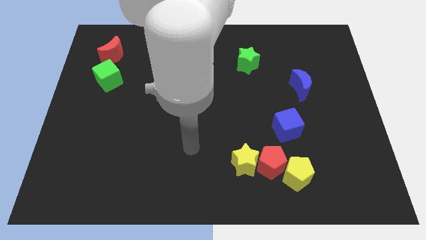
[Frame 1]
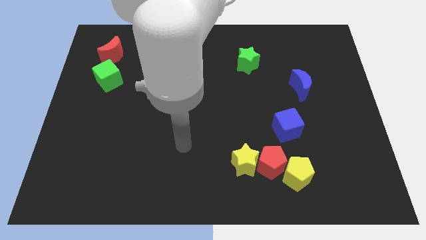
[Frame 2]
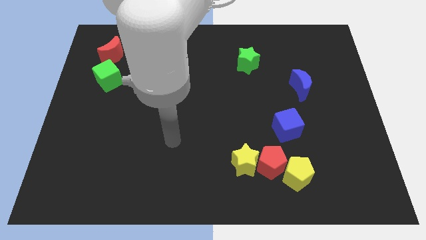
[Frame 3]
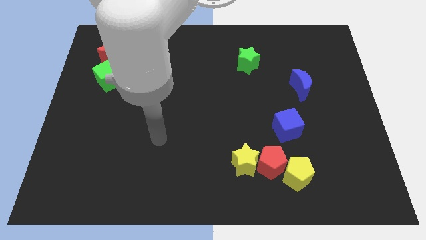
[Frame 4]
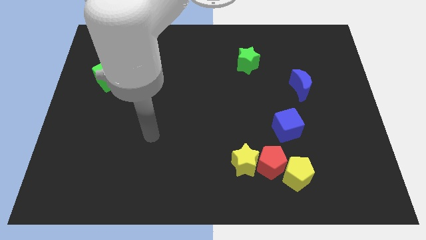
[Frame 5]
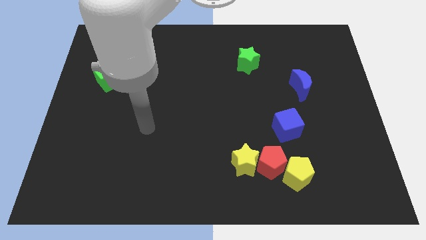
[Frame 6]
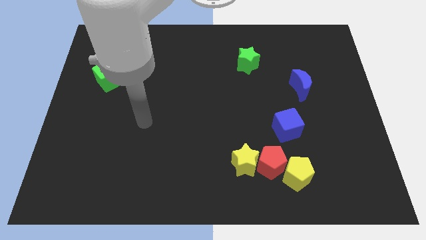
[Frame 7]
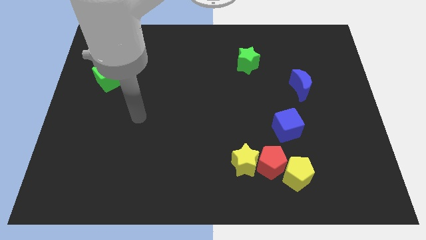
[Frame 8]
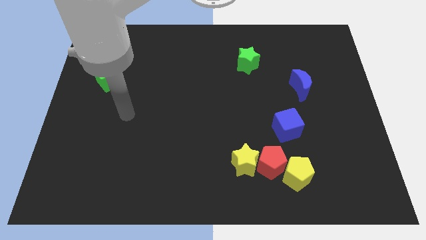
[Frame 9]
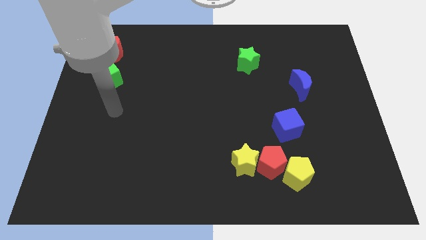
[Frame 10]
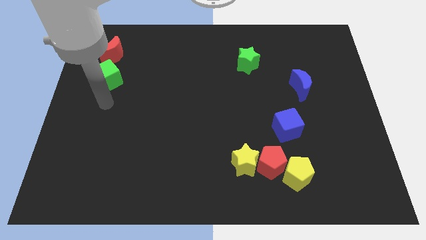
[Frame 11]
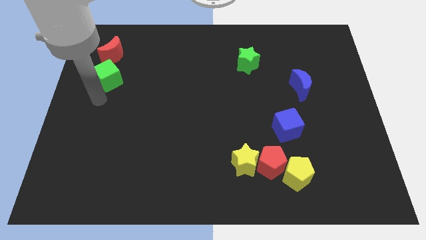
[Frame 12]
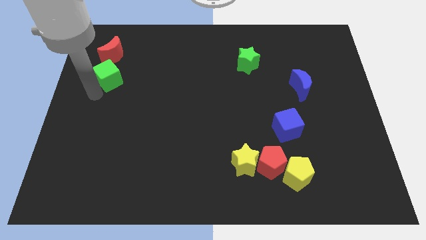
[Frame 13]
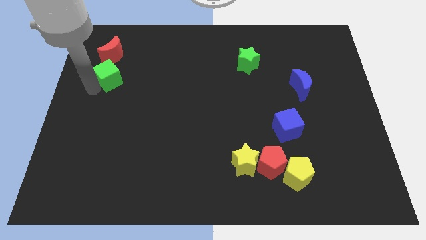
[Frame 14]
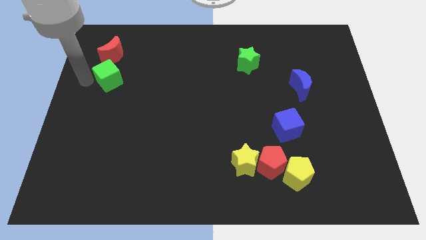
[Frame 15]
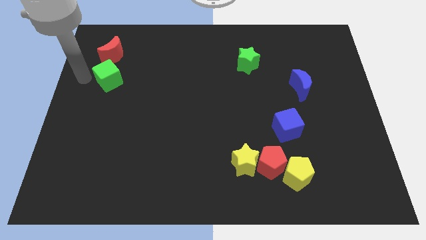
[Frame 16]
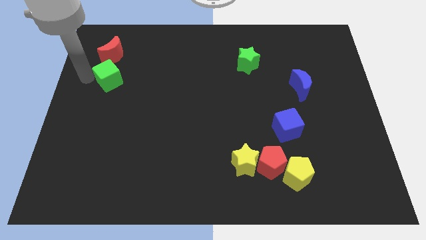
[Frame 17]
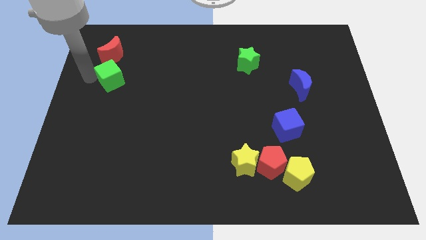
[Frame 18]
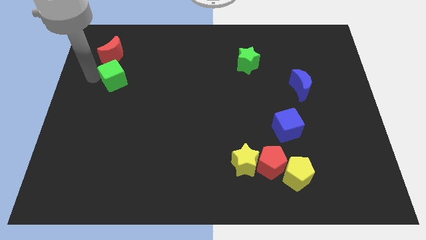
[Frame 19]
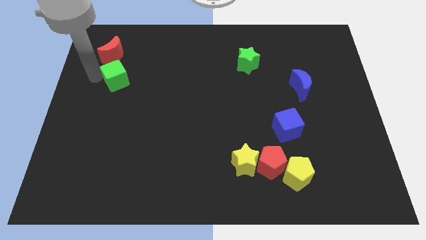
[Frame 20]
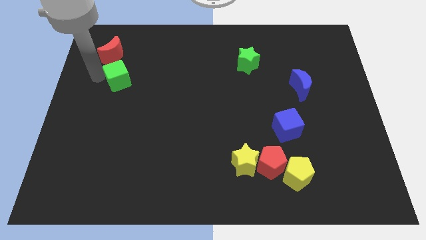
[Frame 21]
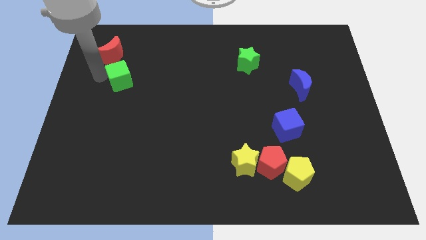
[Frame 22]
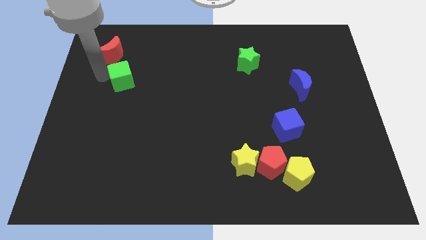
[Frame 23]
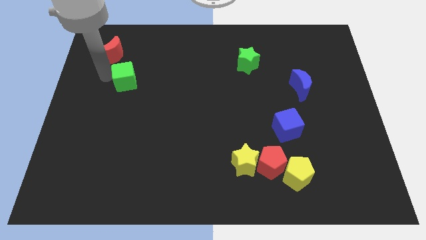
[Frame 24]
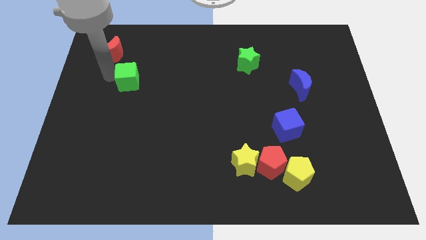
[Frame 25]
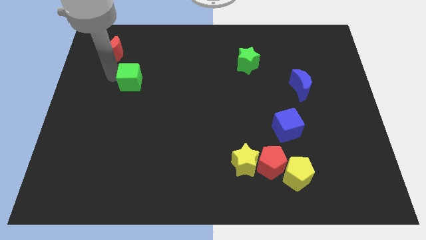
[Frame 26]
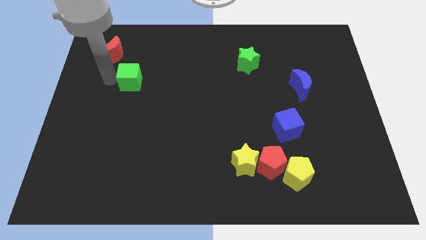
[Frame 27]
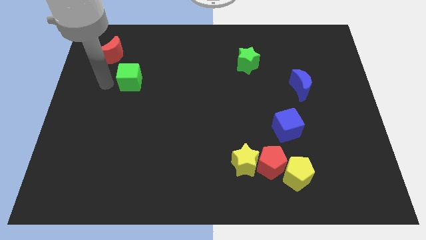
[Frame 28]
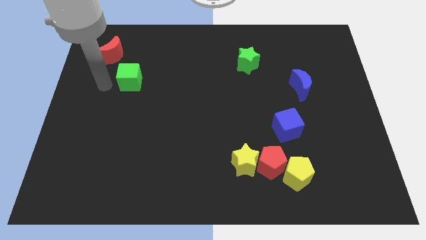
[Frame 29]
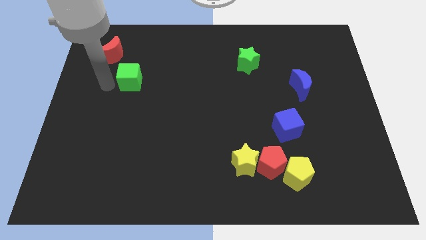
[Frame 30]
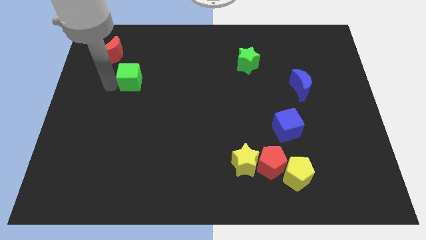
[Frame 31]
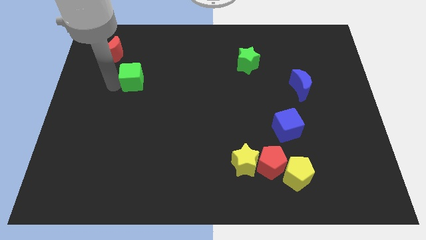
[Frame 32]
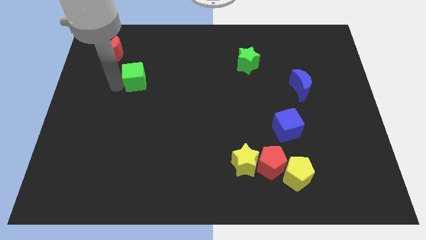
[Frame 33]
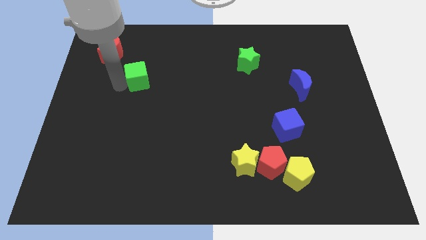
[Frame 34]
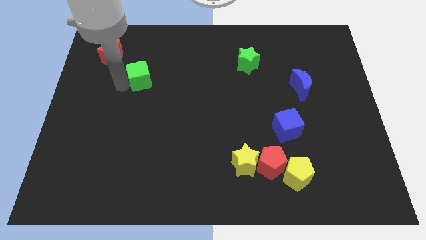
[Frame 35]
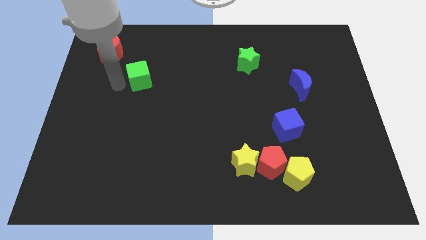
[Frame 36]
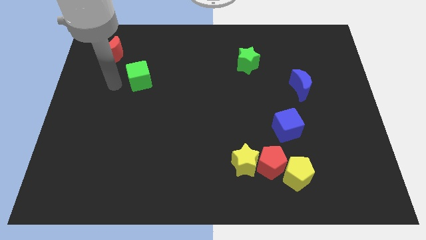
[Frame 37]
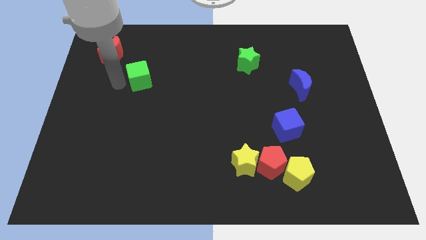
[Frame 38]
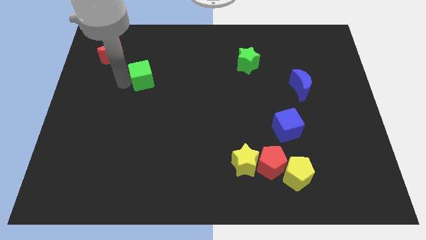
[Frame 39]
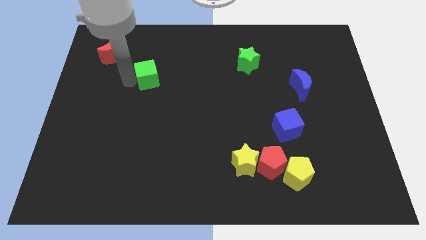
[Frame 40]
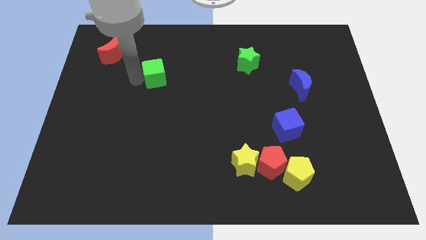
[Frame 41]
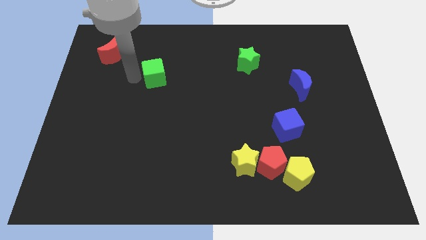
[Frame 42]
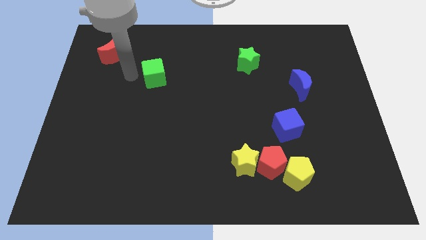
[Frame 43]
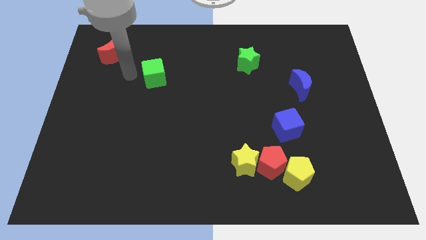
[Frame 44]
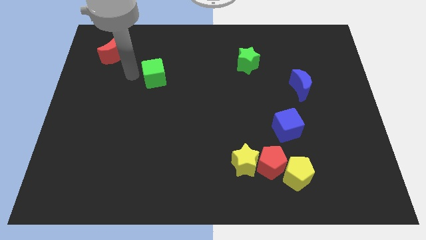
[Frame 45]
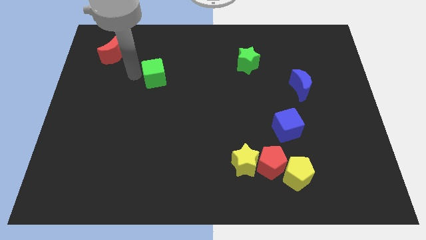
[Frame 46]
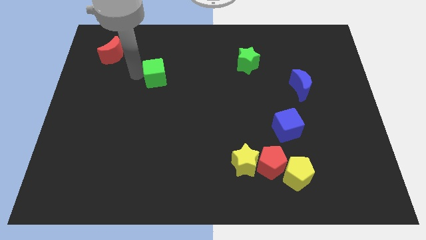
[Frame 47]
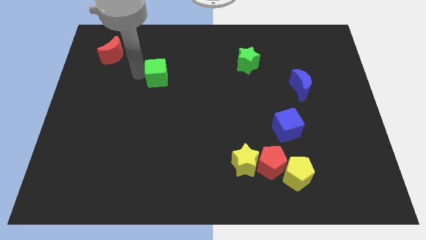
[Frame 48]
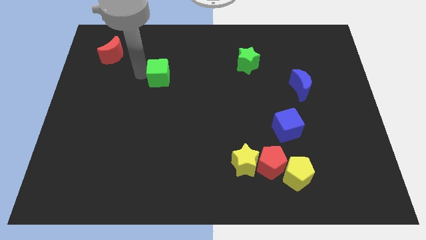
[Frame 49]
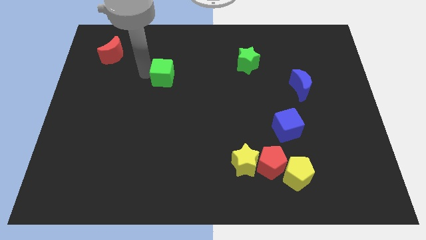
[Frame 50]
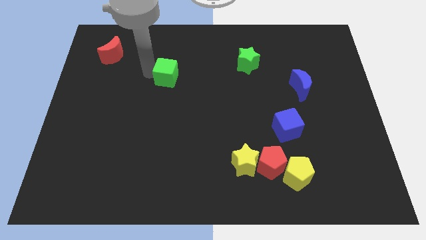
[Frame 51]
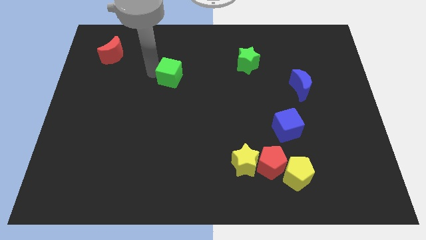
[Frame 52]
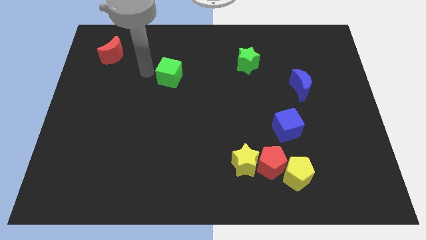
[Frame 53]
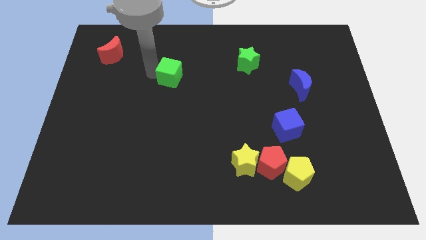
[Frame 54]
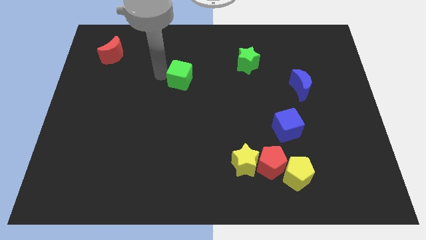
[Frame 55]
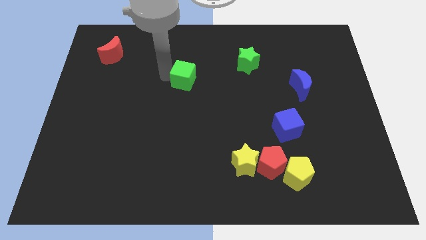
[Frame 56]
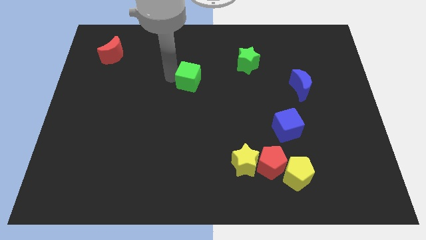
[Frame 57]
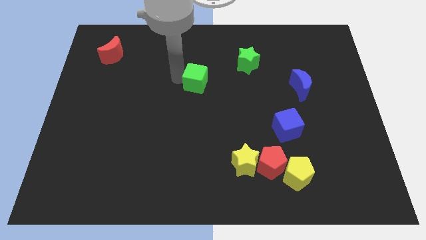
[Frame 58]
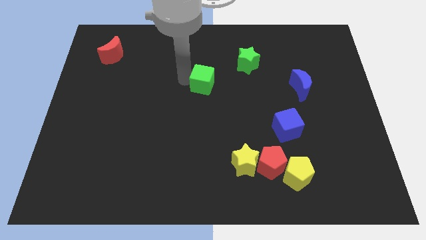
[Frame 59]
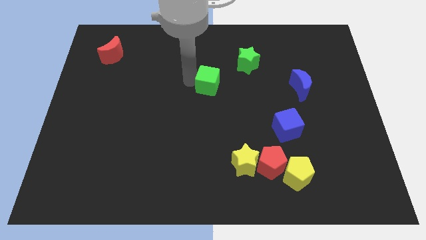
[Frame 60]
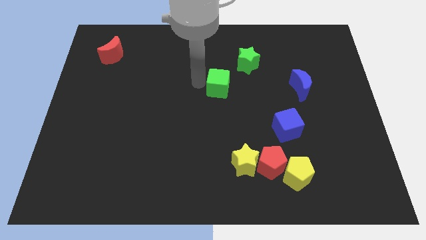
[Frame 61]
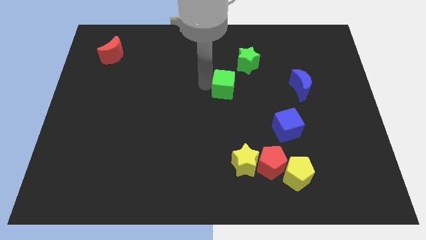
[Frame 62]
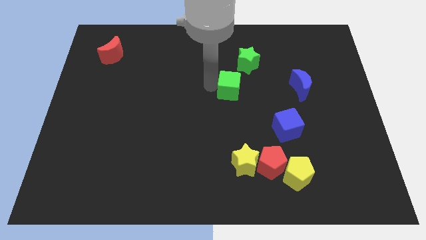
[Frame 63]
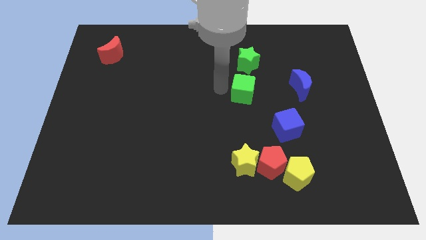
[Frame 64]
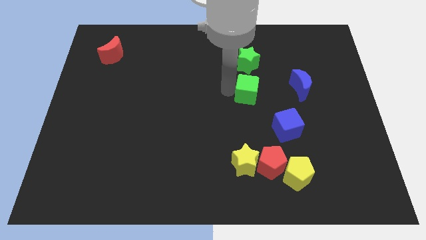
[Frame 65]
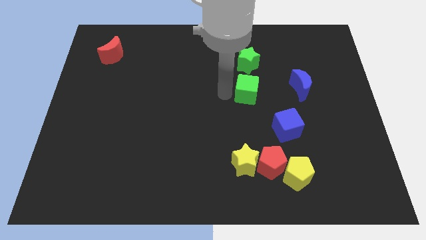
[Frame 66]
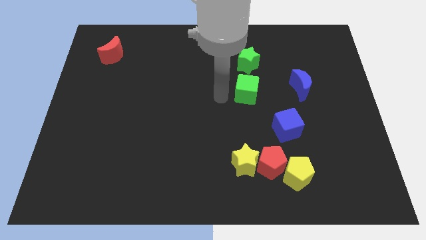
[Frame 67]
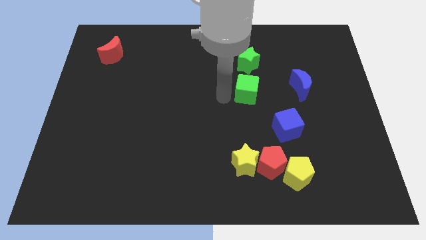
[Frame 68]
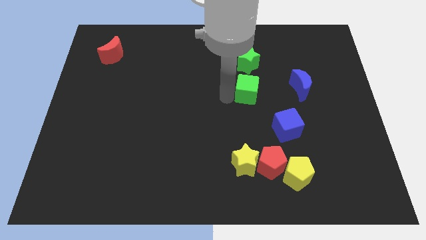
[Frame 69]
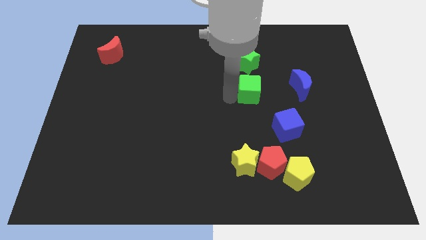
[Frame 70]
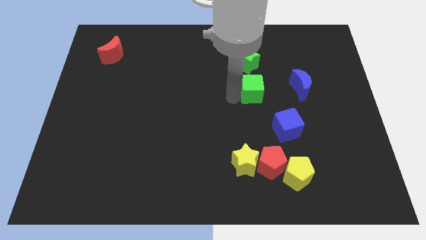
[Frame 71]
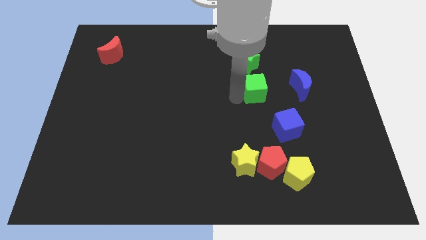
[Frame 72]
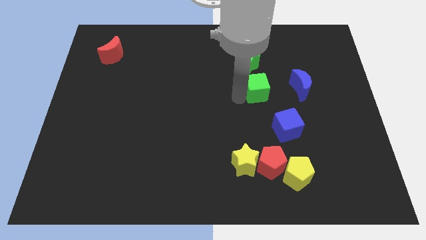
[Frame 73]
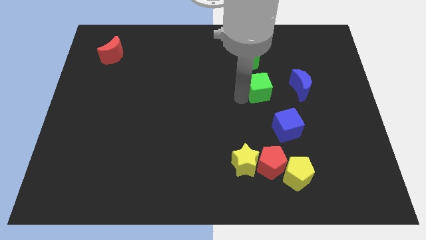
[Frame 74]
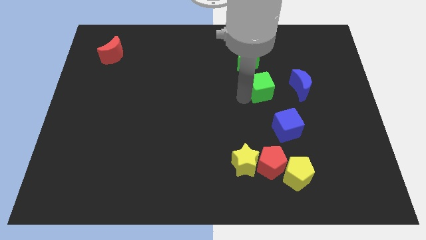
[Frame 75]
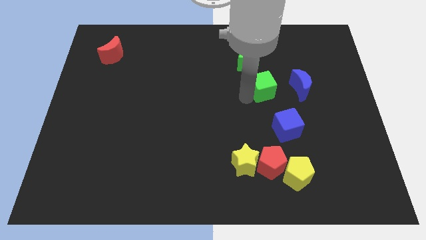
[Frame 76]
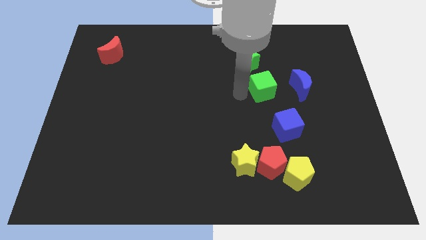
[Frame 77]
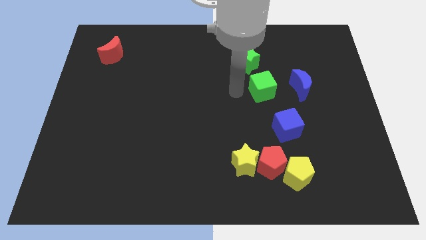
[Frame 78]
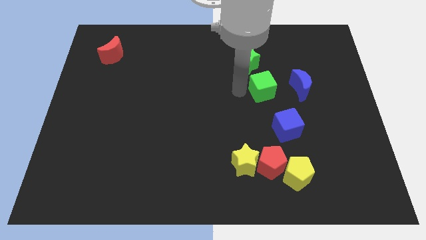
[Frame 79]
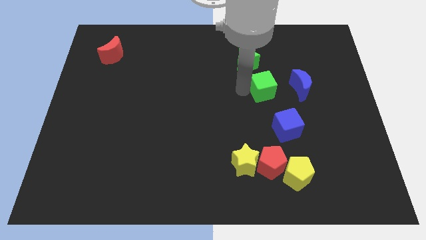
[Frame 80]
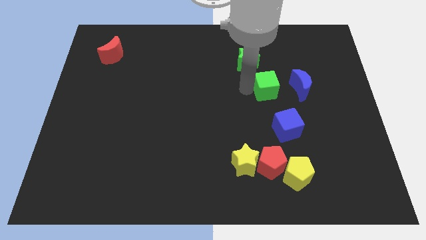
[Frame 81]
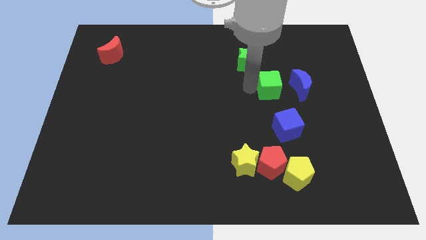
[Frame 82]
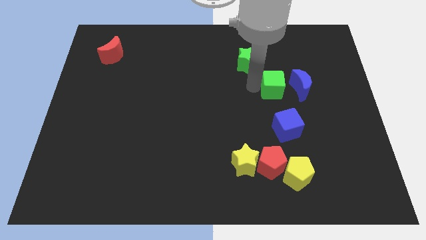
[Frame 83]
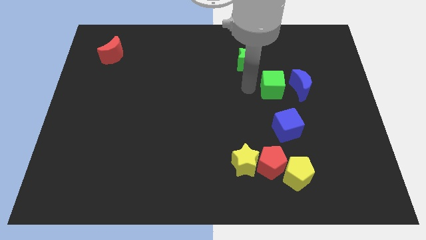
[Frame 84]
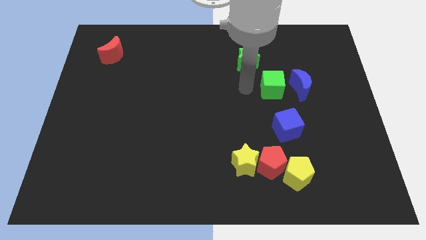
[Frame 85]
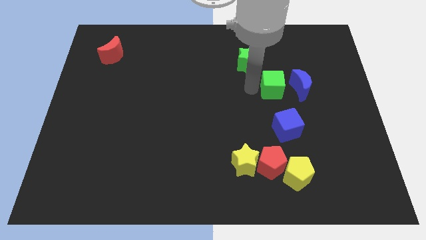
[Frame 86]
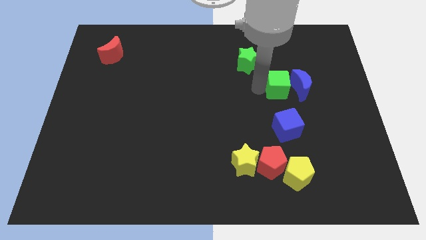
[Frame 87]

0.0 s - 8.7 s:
push the green cube close to the blue moon
